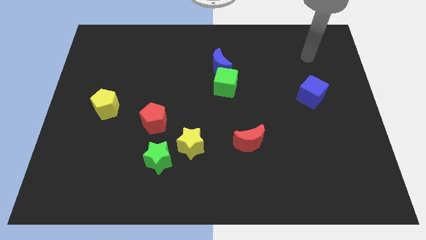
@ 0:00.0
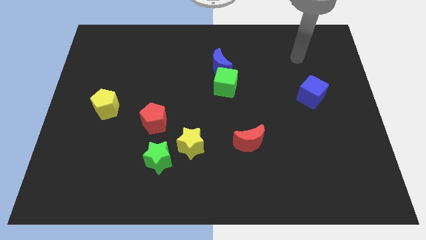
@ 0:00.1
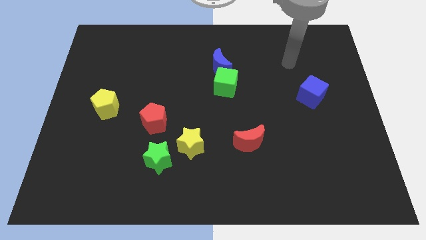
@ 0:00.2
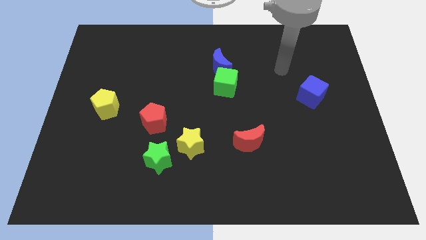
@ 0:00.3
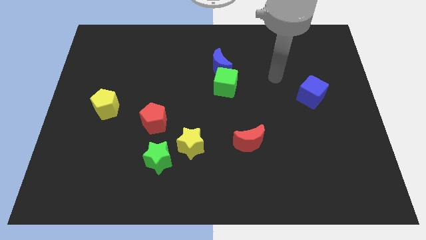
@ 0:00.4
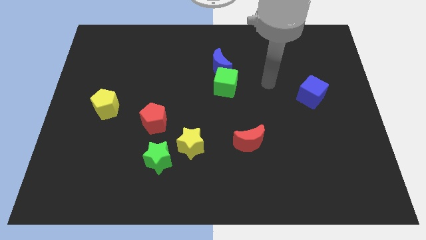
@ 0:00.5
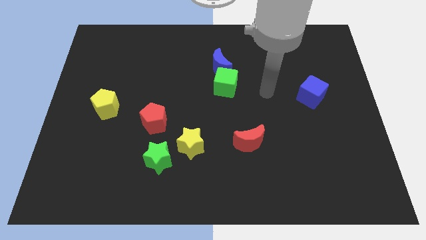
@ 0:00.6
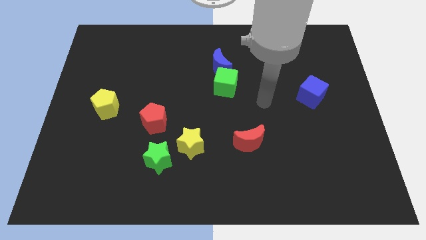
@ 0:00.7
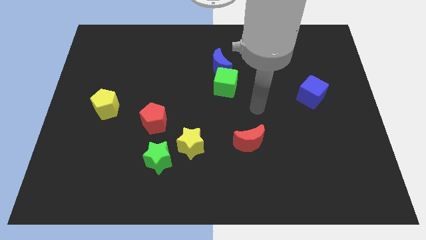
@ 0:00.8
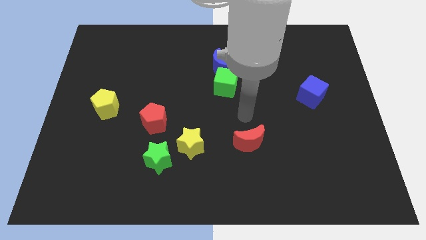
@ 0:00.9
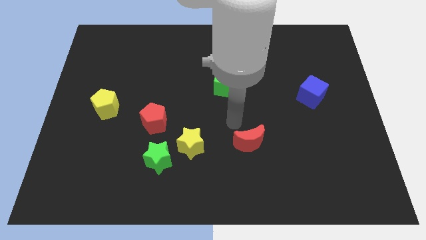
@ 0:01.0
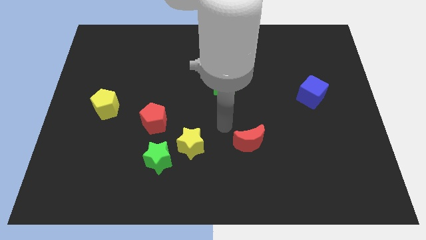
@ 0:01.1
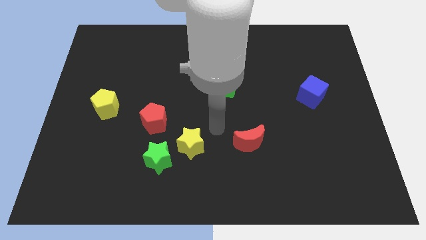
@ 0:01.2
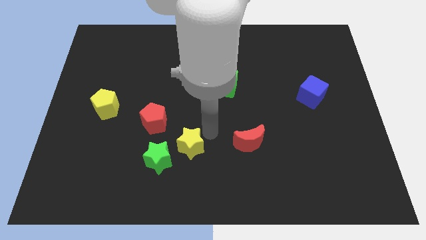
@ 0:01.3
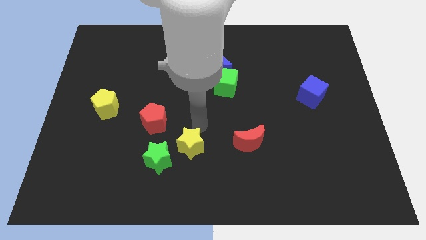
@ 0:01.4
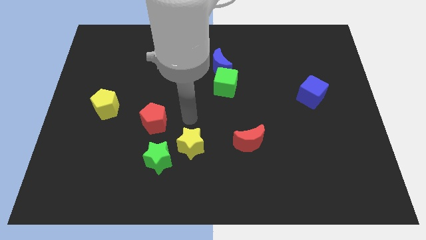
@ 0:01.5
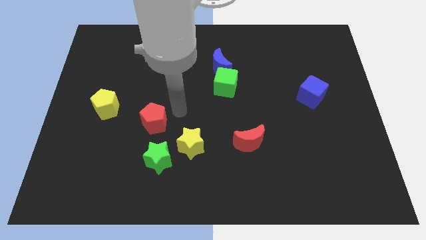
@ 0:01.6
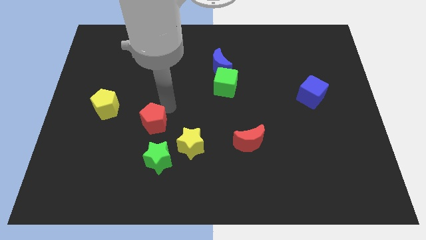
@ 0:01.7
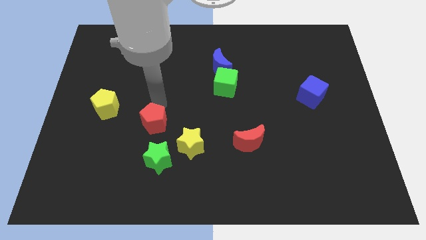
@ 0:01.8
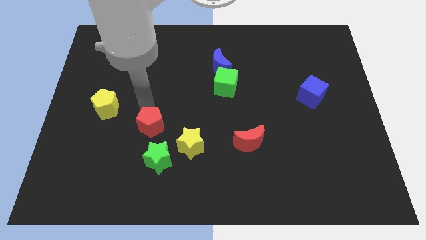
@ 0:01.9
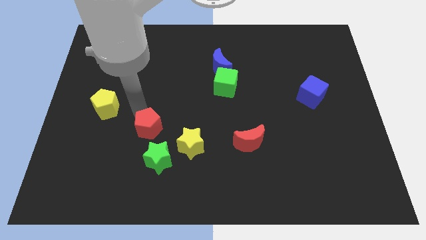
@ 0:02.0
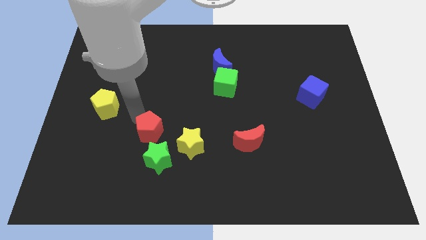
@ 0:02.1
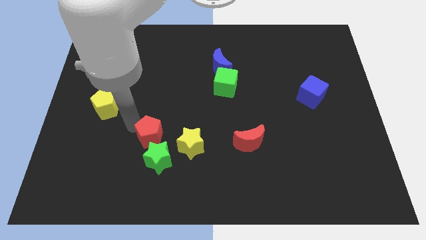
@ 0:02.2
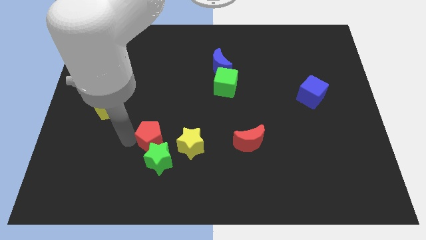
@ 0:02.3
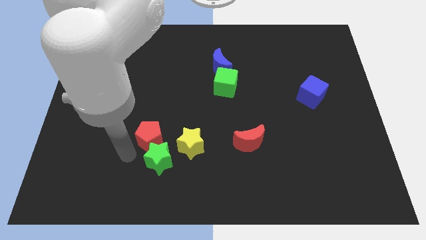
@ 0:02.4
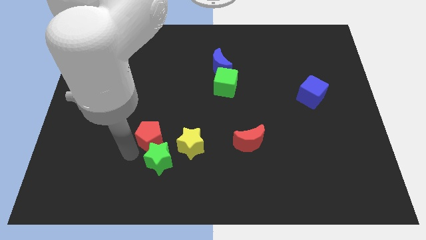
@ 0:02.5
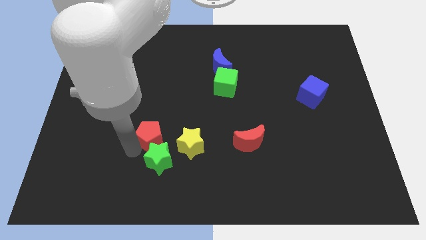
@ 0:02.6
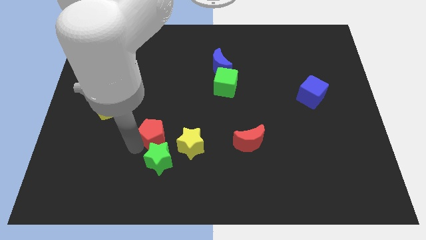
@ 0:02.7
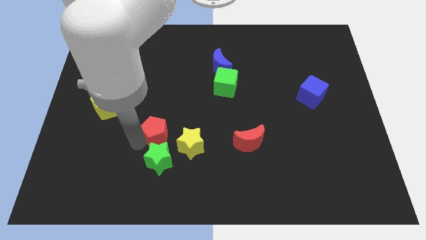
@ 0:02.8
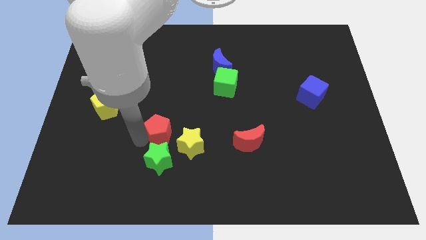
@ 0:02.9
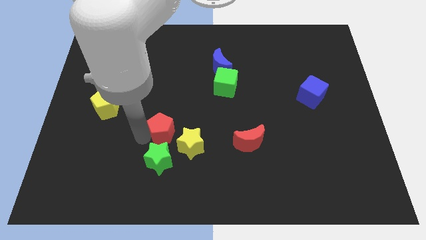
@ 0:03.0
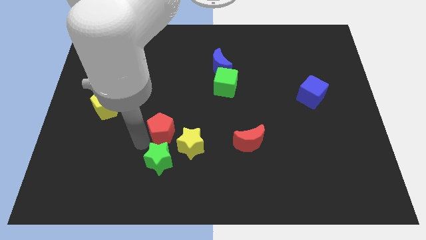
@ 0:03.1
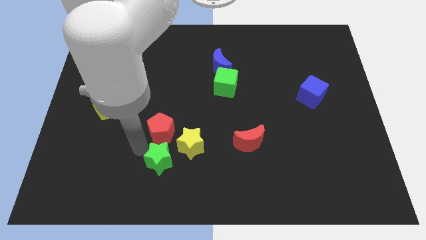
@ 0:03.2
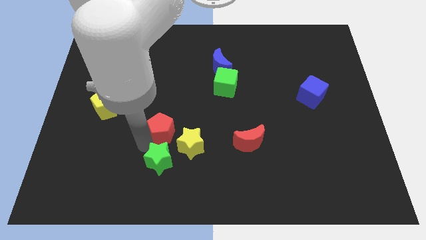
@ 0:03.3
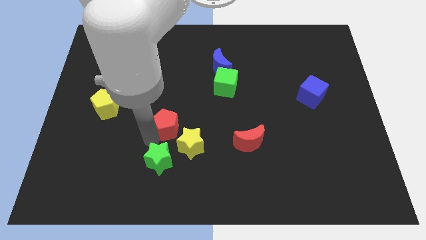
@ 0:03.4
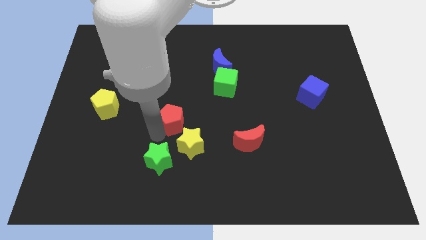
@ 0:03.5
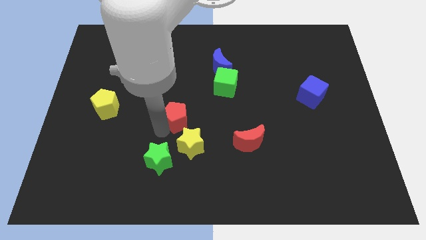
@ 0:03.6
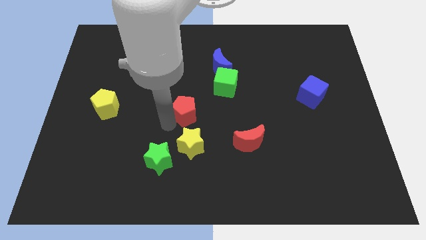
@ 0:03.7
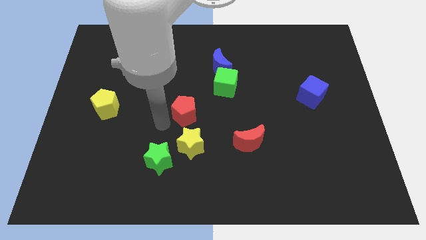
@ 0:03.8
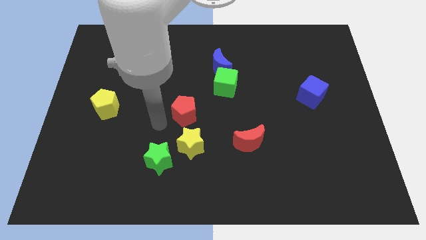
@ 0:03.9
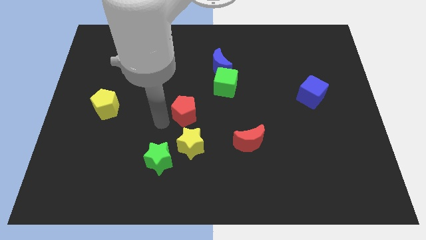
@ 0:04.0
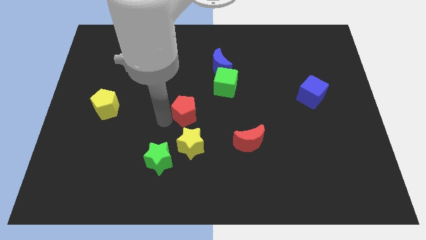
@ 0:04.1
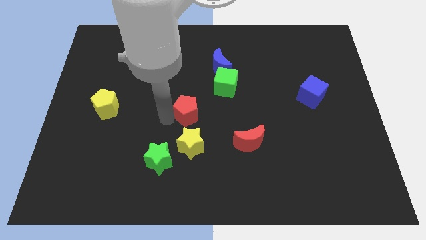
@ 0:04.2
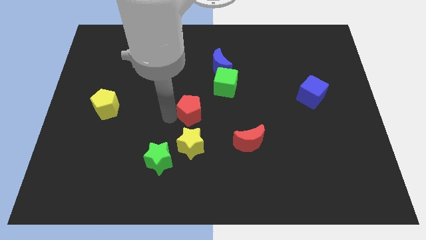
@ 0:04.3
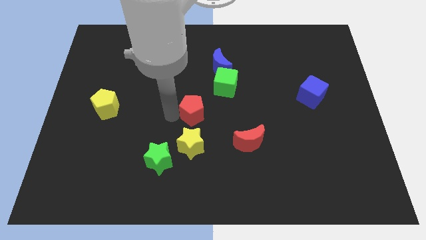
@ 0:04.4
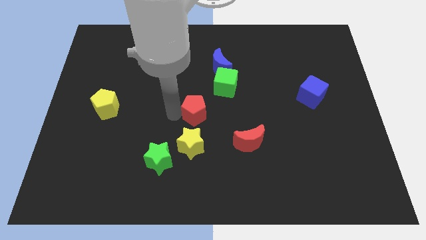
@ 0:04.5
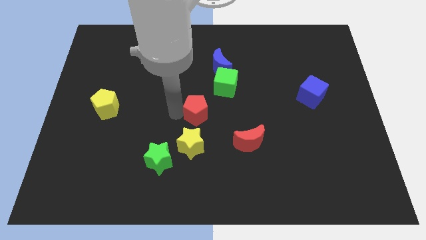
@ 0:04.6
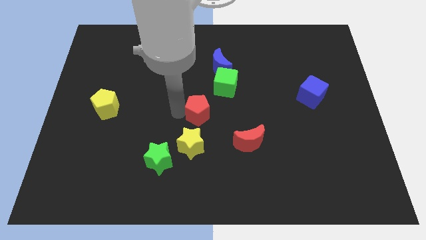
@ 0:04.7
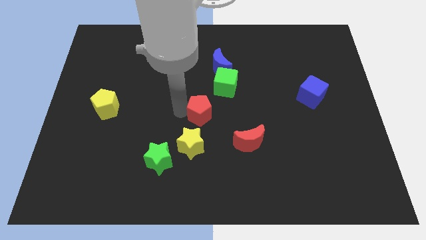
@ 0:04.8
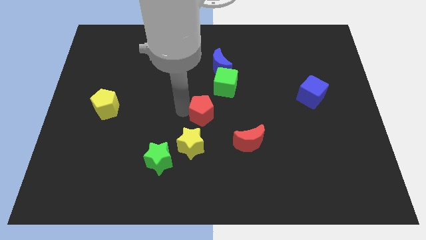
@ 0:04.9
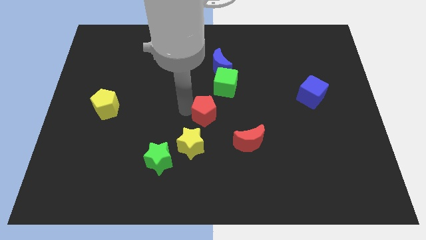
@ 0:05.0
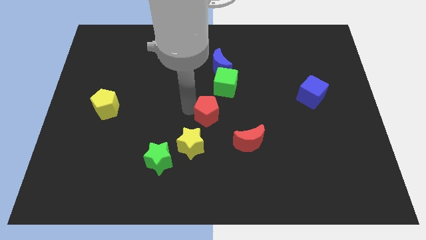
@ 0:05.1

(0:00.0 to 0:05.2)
slide the red pentagon below the blue moon

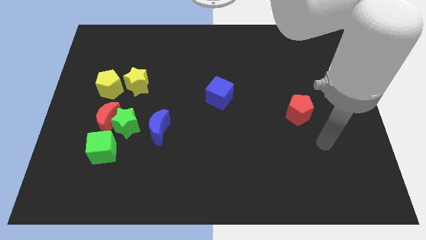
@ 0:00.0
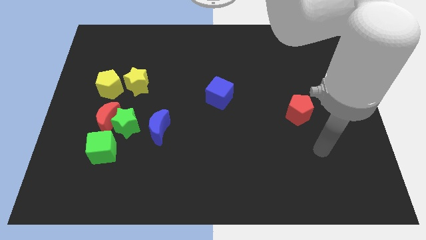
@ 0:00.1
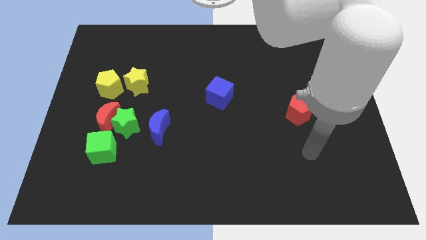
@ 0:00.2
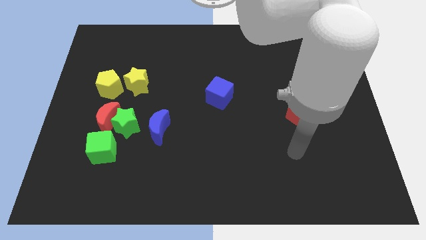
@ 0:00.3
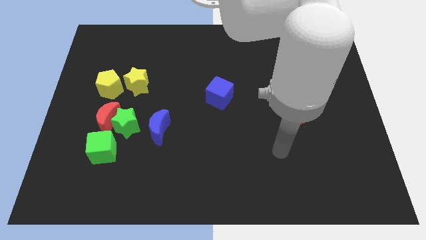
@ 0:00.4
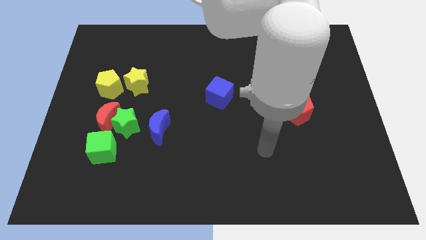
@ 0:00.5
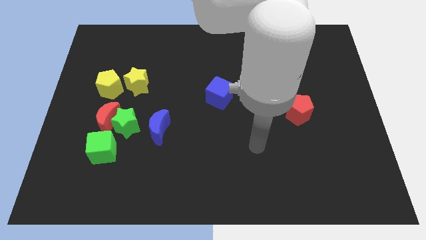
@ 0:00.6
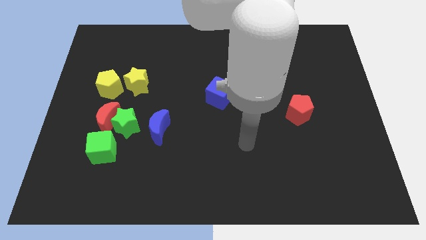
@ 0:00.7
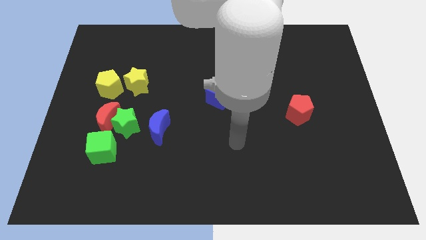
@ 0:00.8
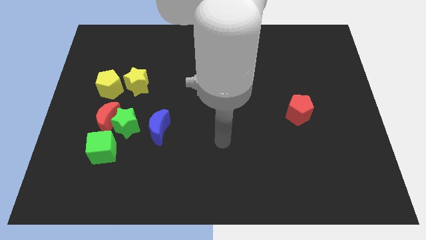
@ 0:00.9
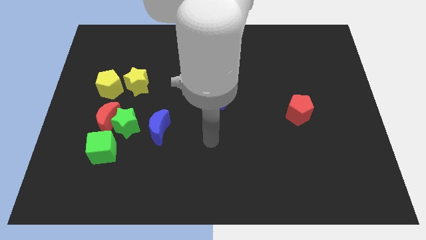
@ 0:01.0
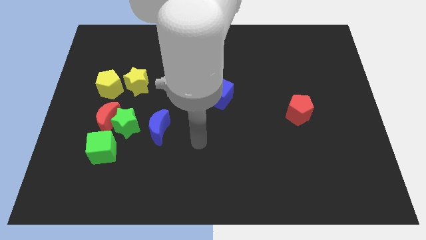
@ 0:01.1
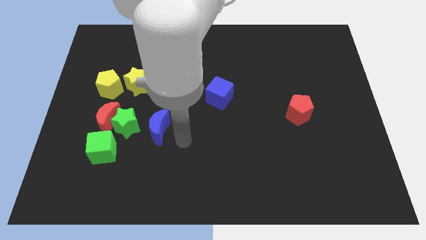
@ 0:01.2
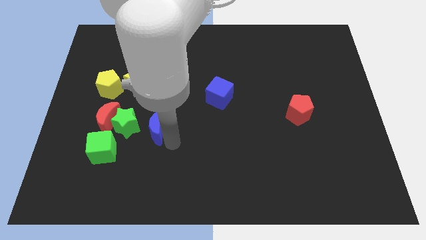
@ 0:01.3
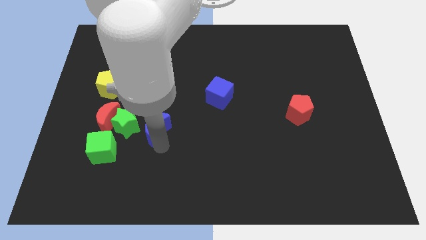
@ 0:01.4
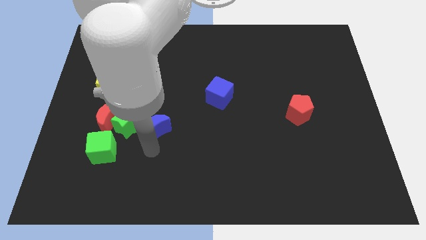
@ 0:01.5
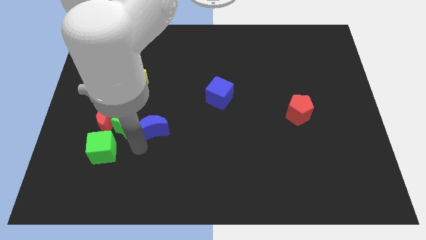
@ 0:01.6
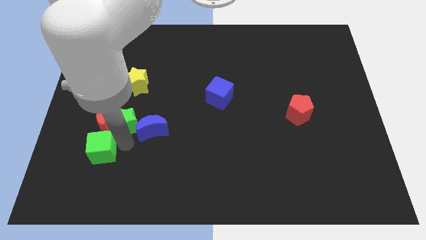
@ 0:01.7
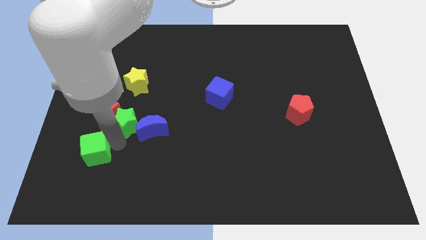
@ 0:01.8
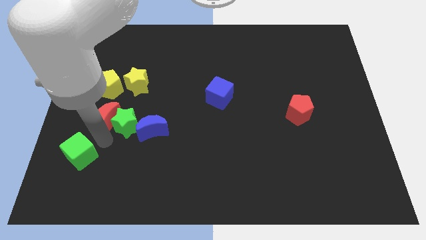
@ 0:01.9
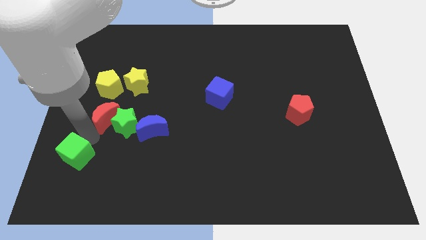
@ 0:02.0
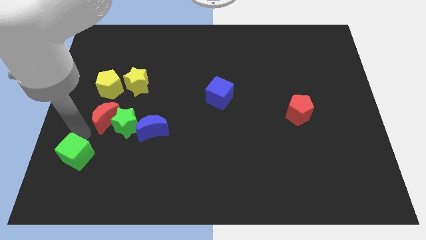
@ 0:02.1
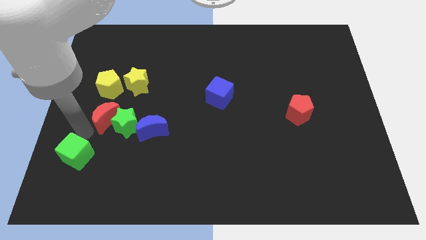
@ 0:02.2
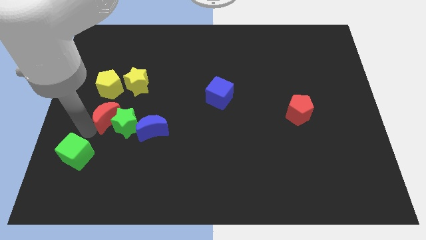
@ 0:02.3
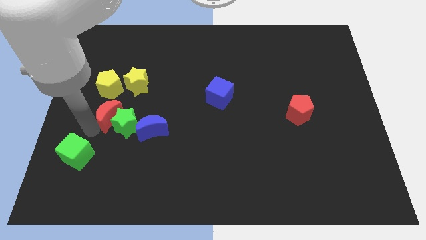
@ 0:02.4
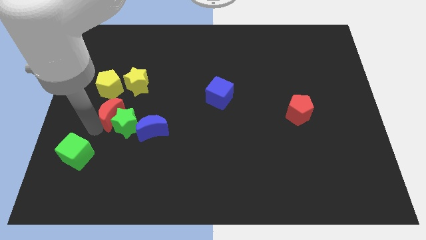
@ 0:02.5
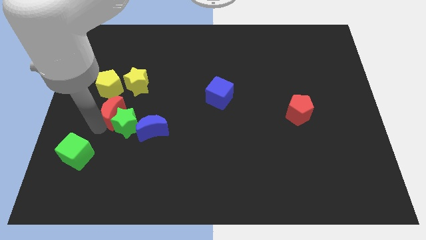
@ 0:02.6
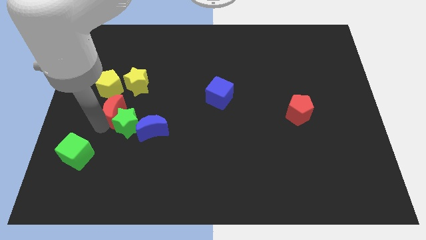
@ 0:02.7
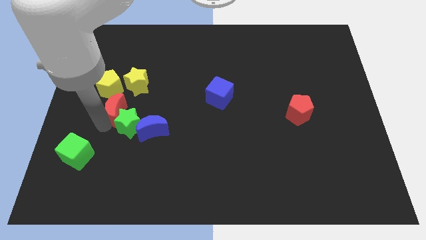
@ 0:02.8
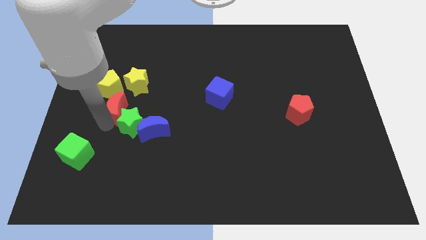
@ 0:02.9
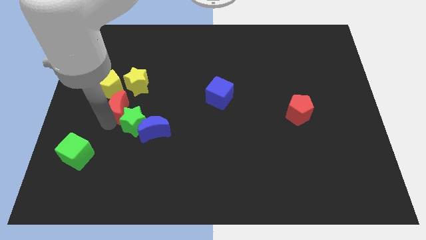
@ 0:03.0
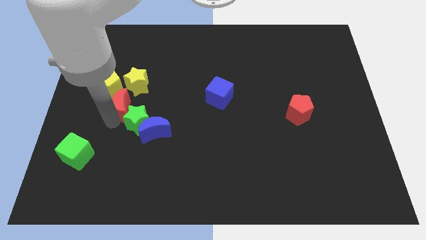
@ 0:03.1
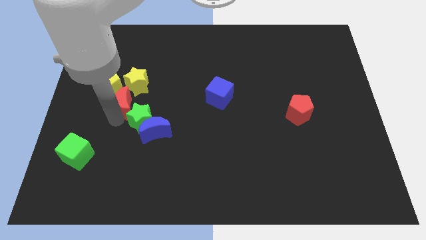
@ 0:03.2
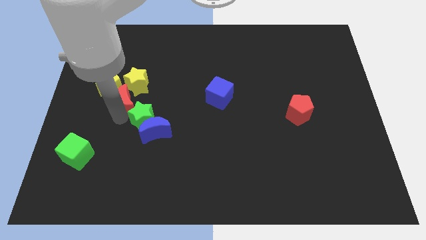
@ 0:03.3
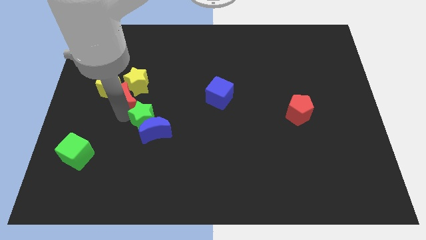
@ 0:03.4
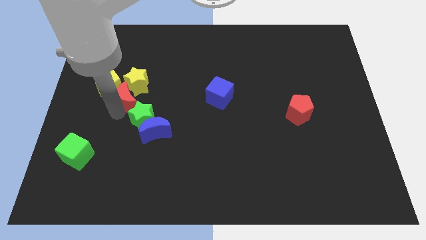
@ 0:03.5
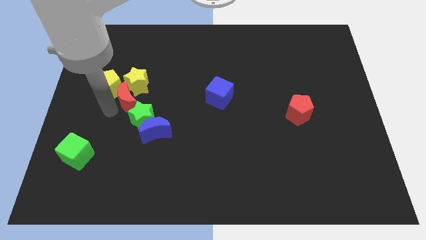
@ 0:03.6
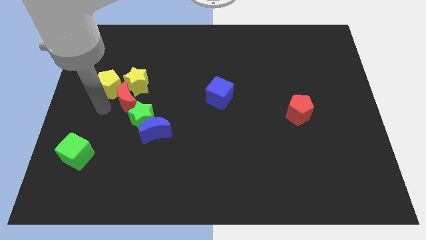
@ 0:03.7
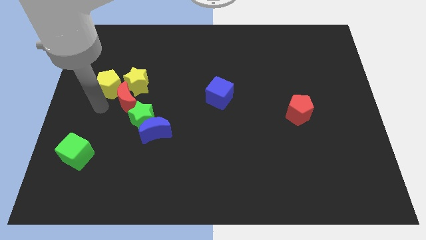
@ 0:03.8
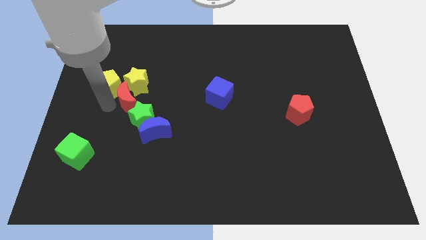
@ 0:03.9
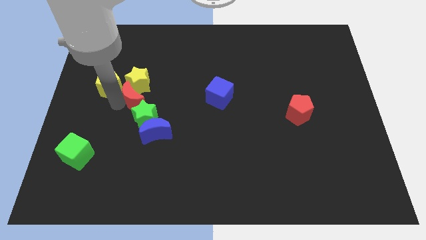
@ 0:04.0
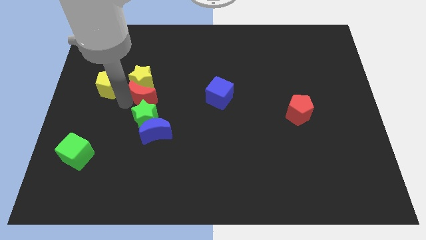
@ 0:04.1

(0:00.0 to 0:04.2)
move the red moon above the blue moon
